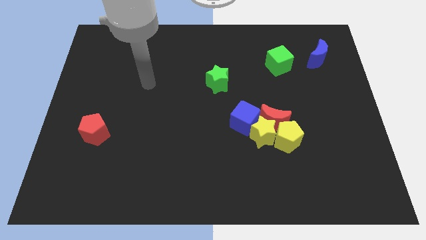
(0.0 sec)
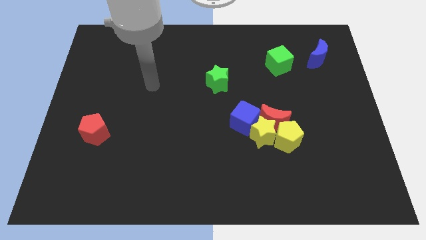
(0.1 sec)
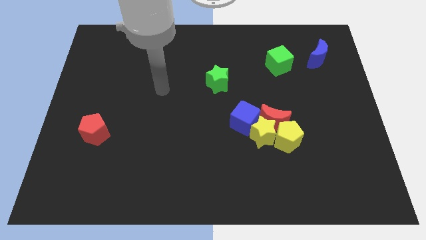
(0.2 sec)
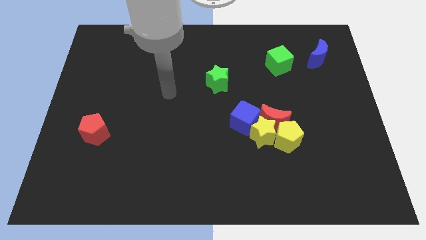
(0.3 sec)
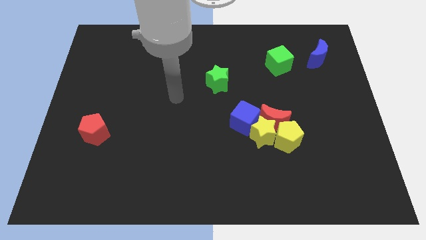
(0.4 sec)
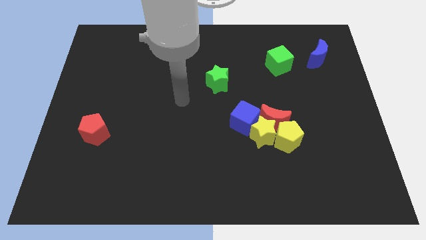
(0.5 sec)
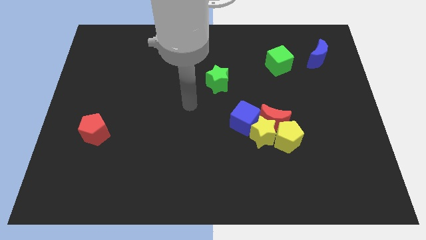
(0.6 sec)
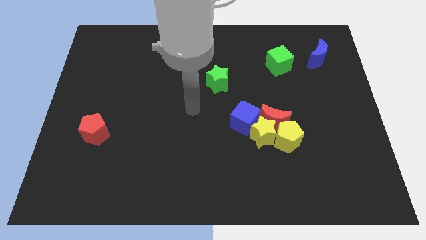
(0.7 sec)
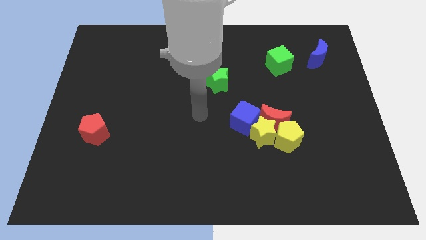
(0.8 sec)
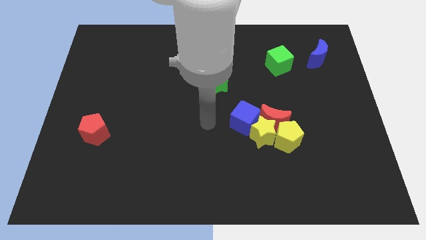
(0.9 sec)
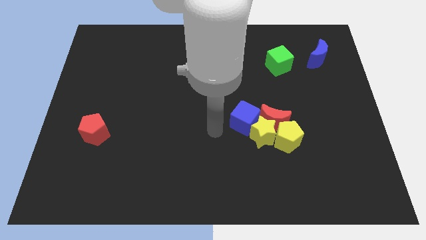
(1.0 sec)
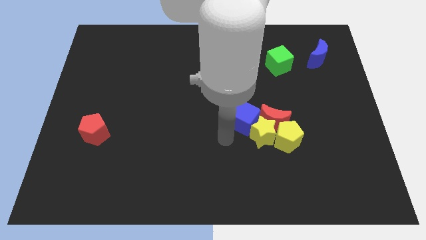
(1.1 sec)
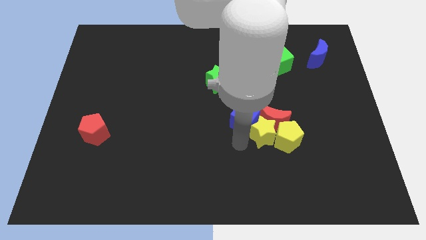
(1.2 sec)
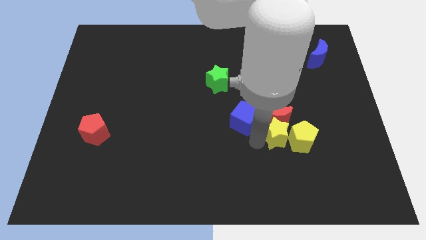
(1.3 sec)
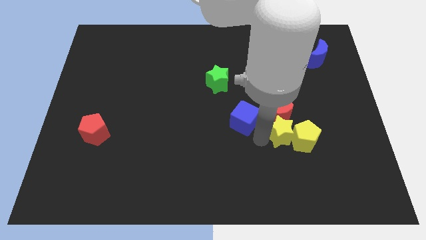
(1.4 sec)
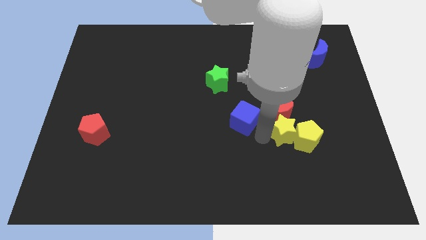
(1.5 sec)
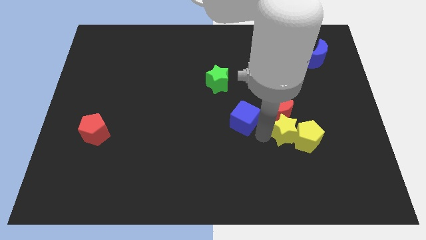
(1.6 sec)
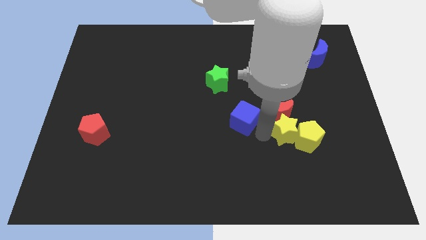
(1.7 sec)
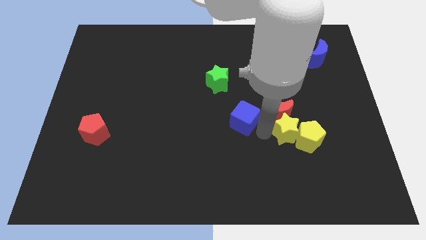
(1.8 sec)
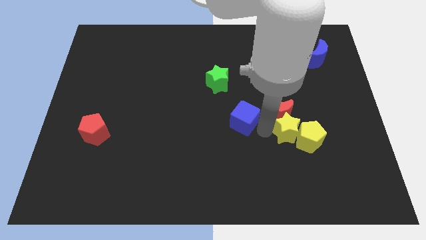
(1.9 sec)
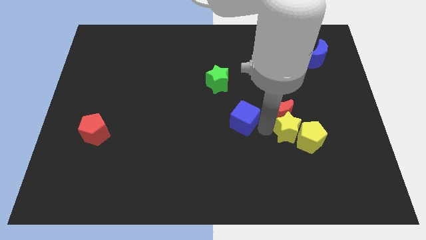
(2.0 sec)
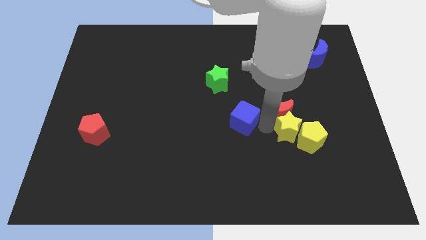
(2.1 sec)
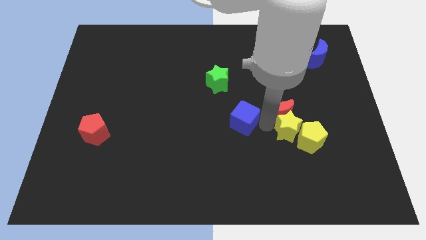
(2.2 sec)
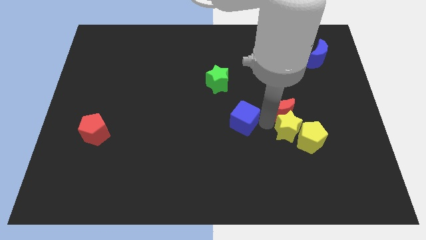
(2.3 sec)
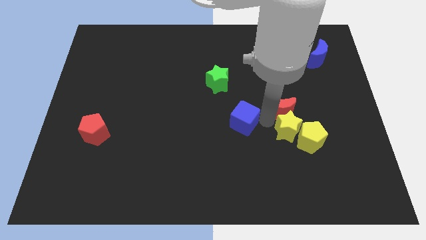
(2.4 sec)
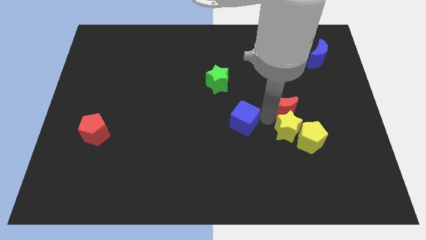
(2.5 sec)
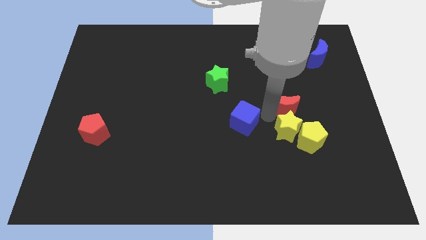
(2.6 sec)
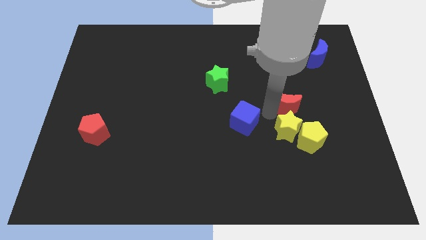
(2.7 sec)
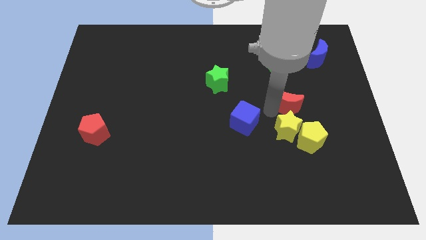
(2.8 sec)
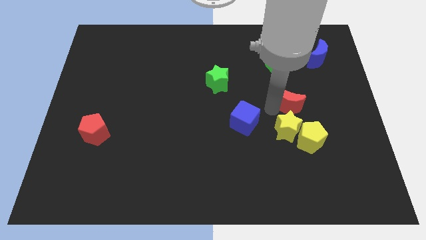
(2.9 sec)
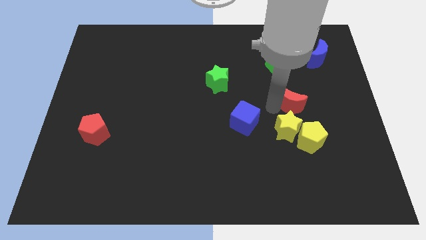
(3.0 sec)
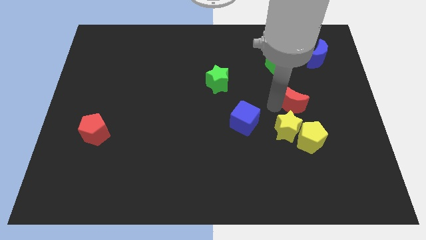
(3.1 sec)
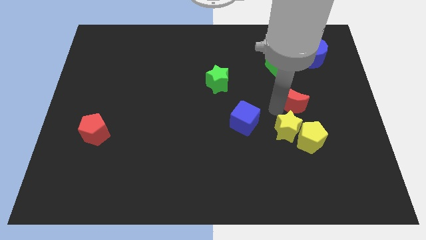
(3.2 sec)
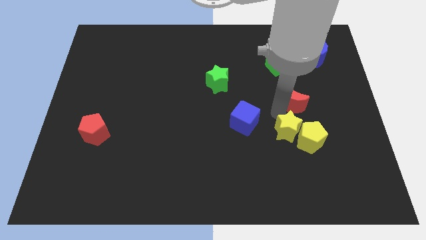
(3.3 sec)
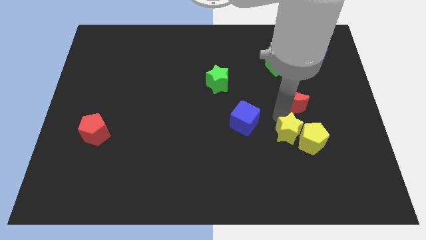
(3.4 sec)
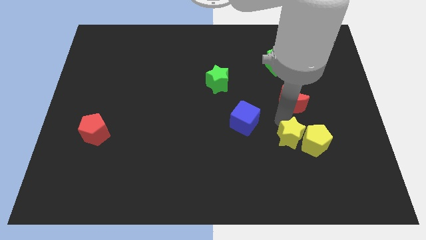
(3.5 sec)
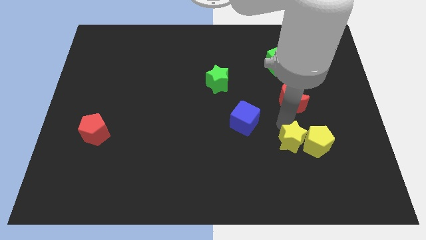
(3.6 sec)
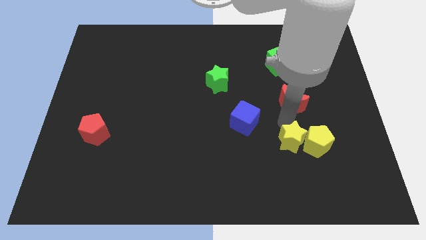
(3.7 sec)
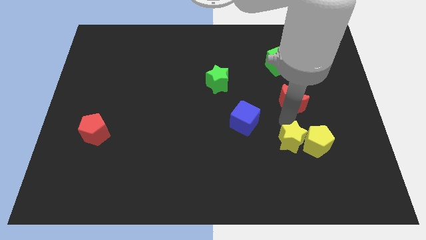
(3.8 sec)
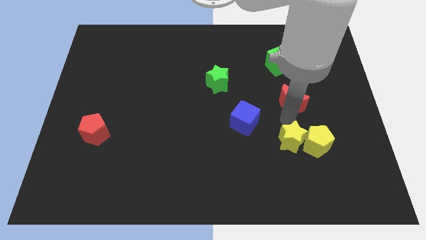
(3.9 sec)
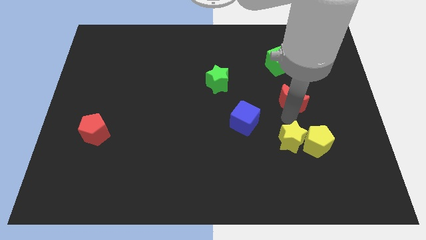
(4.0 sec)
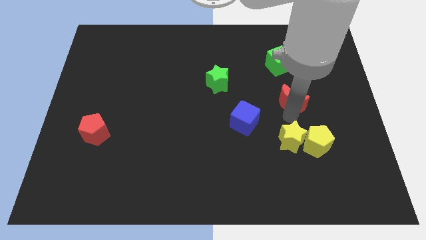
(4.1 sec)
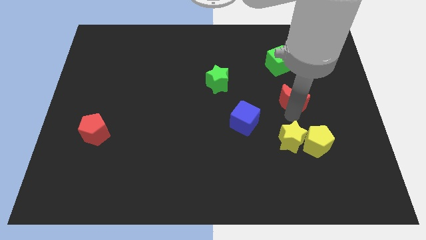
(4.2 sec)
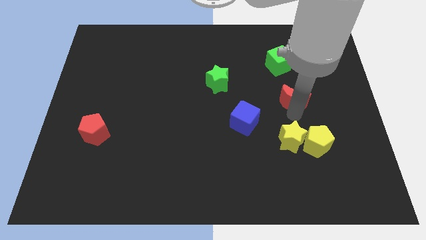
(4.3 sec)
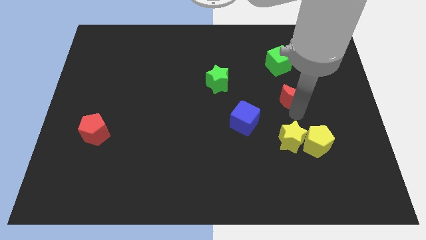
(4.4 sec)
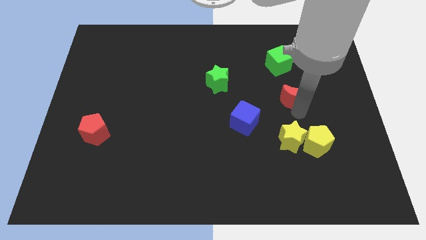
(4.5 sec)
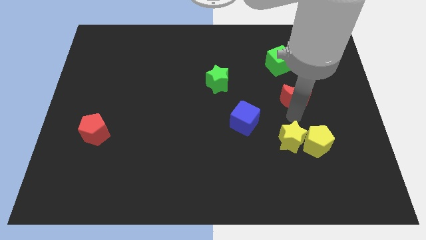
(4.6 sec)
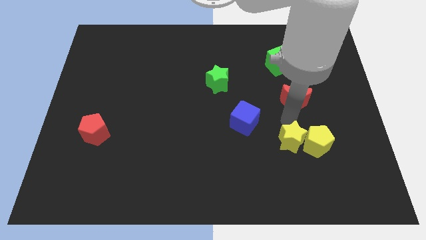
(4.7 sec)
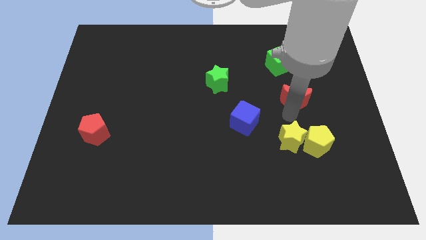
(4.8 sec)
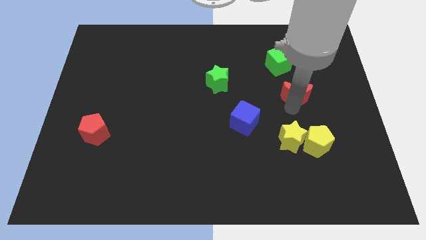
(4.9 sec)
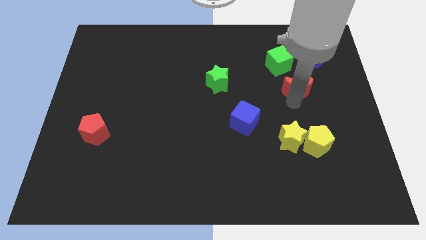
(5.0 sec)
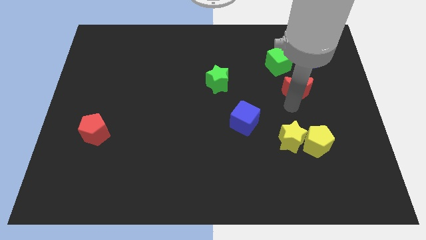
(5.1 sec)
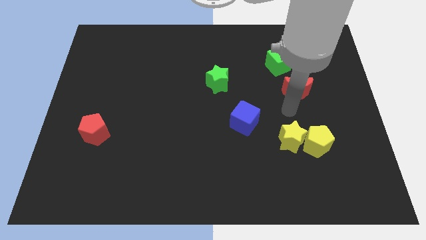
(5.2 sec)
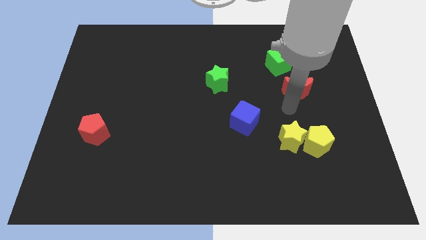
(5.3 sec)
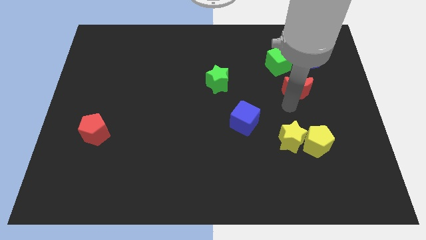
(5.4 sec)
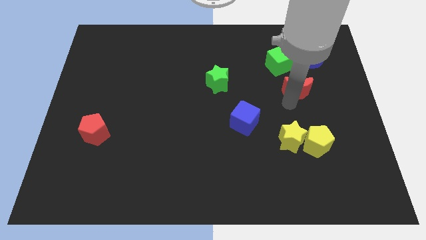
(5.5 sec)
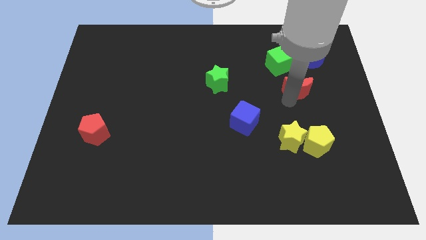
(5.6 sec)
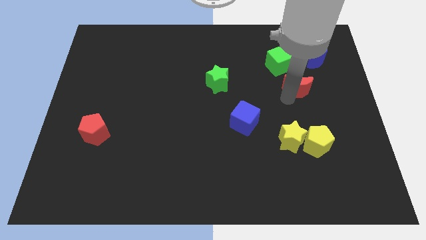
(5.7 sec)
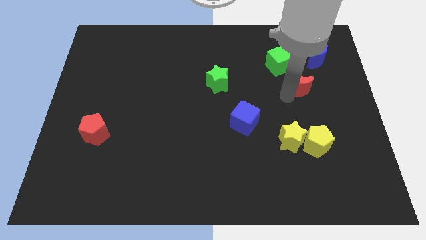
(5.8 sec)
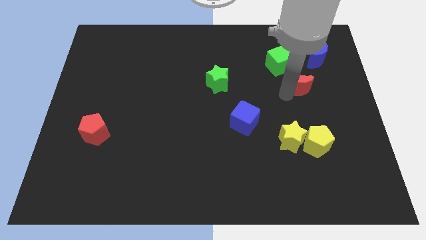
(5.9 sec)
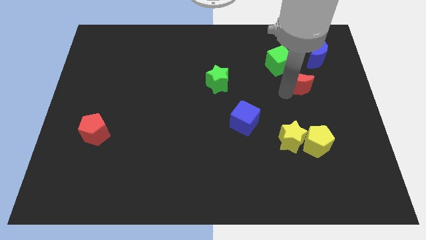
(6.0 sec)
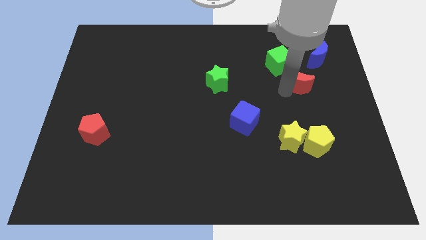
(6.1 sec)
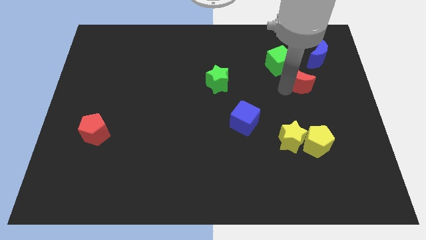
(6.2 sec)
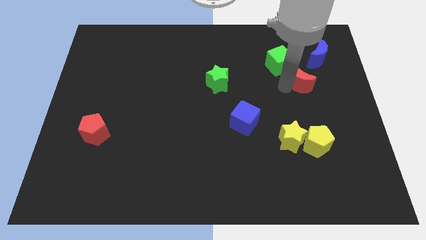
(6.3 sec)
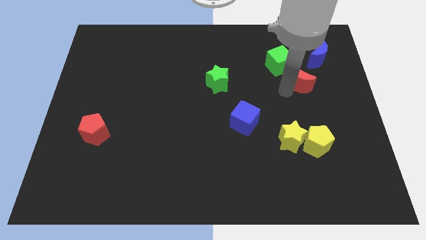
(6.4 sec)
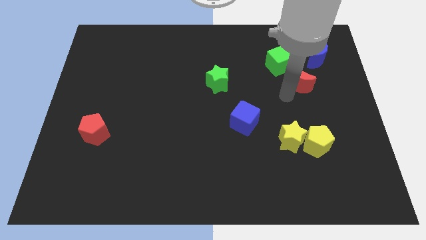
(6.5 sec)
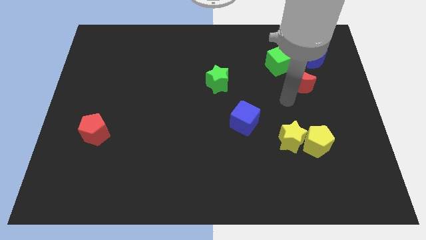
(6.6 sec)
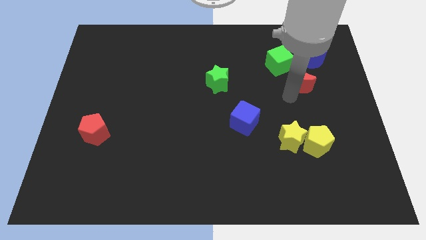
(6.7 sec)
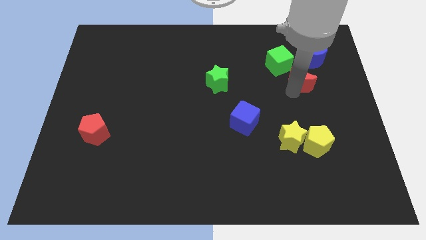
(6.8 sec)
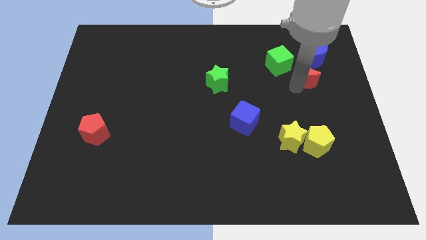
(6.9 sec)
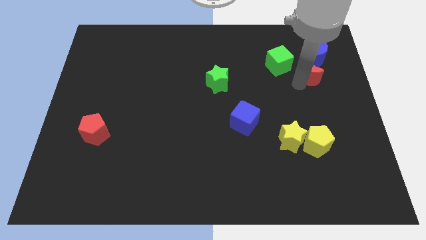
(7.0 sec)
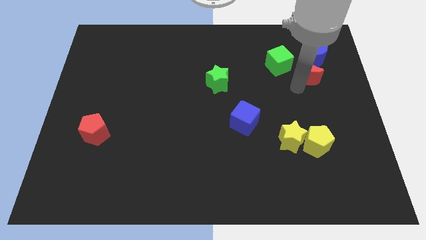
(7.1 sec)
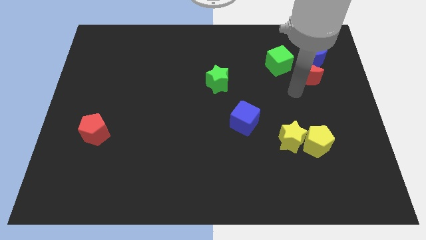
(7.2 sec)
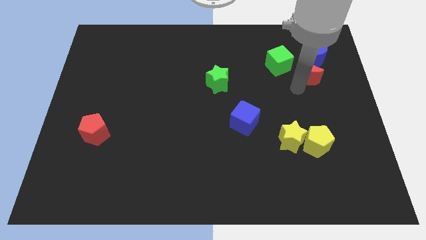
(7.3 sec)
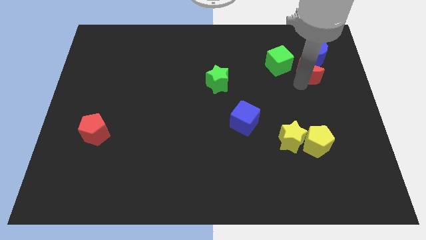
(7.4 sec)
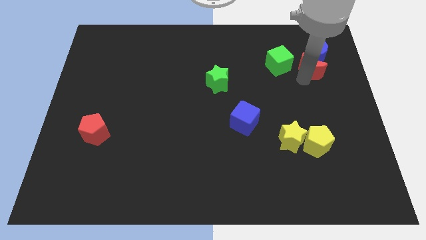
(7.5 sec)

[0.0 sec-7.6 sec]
put the red moon to the blue moon

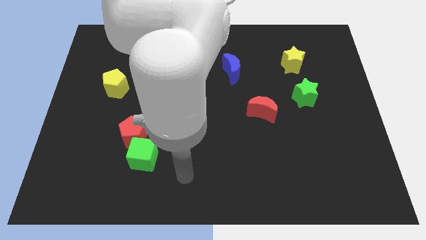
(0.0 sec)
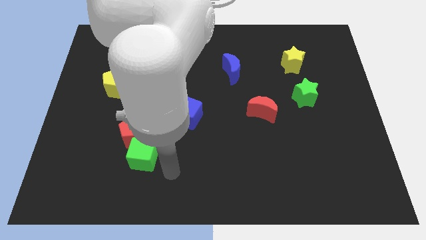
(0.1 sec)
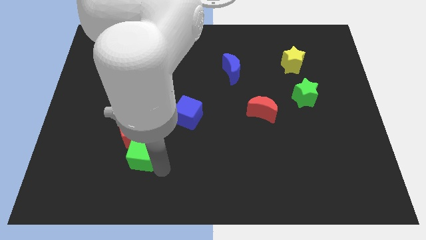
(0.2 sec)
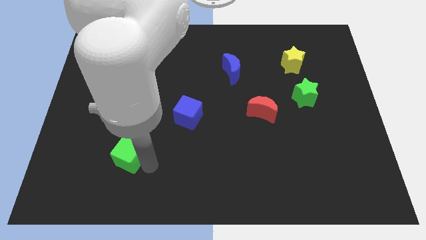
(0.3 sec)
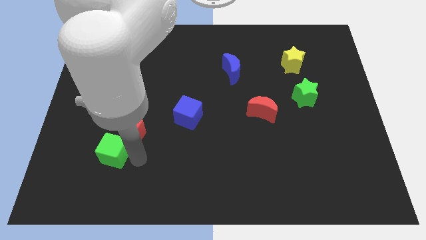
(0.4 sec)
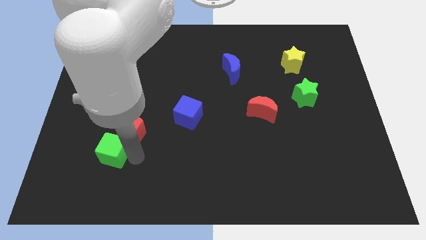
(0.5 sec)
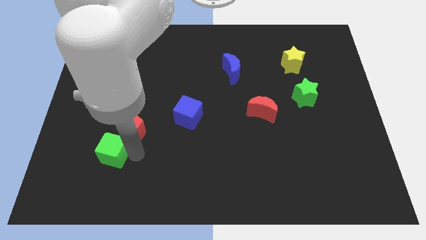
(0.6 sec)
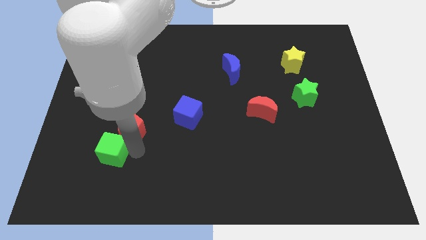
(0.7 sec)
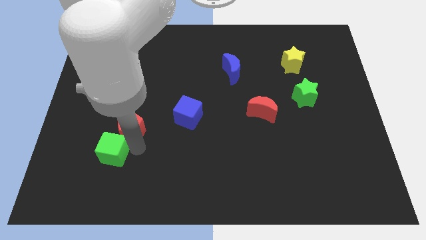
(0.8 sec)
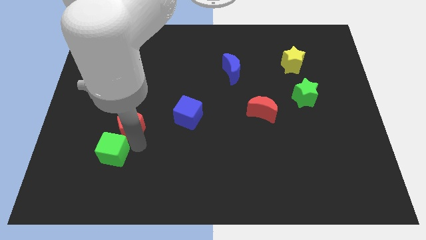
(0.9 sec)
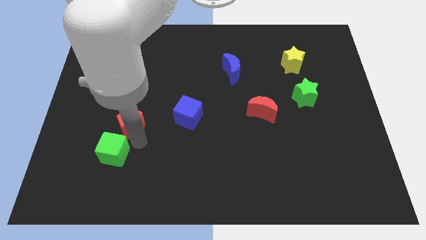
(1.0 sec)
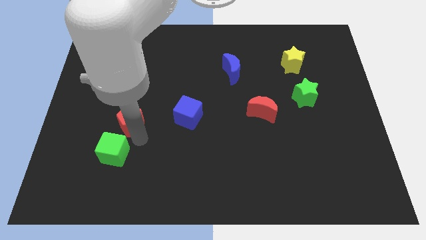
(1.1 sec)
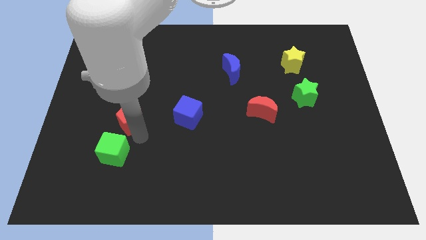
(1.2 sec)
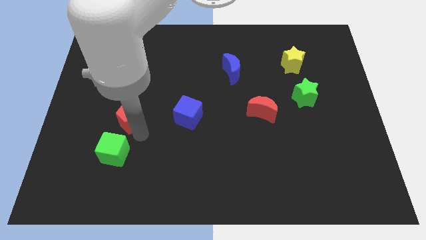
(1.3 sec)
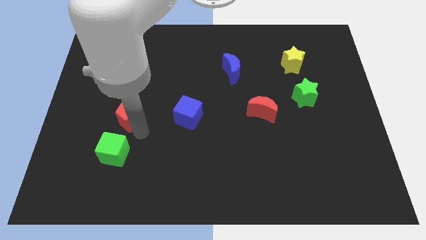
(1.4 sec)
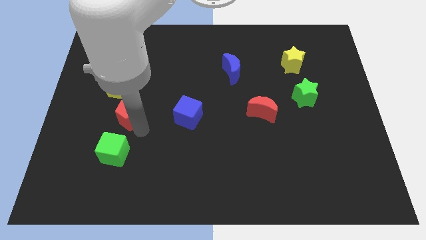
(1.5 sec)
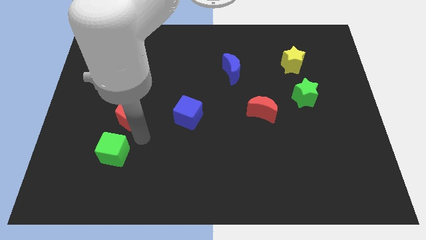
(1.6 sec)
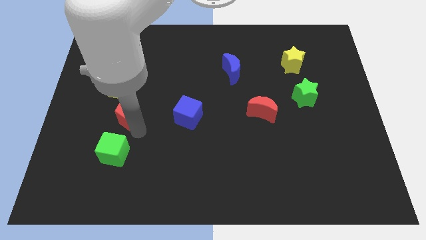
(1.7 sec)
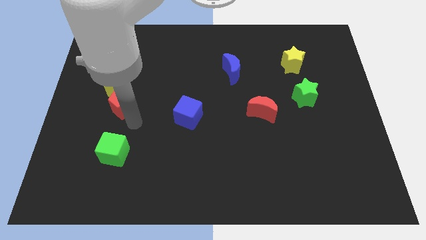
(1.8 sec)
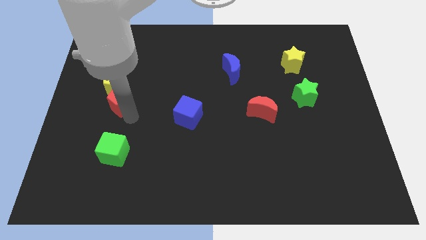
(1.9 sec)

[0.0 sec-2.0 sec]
slide the red pentagon close to the yellow pentagon
